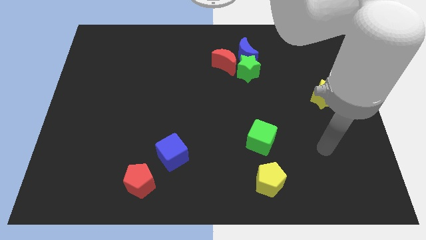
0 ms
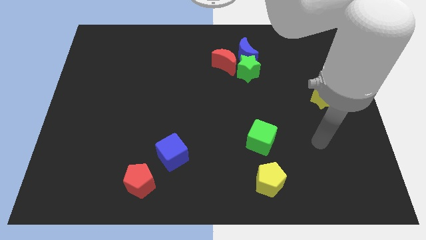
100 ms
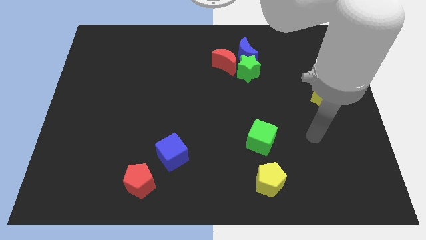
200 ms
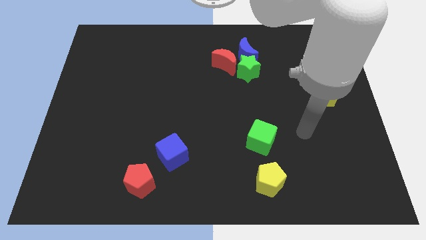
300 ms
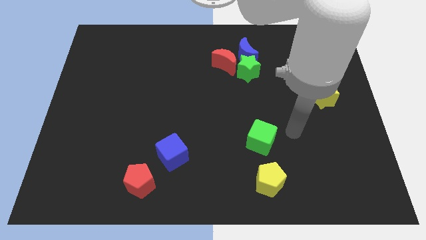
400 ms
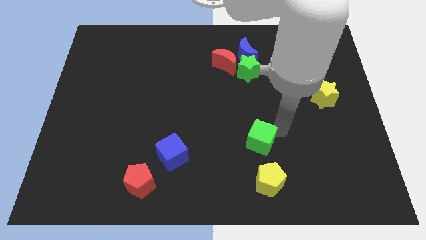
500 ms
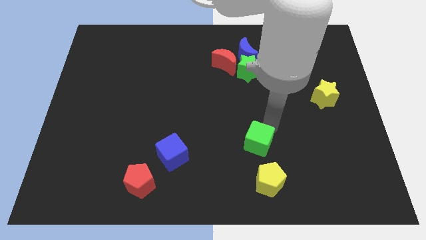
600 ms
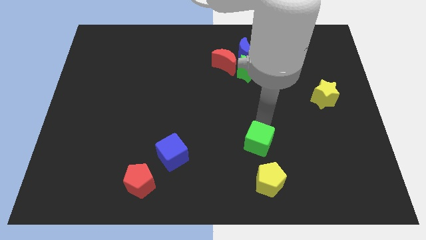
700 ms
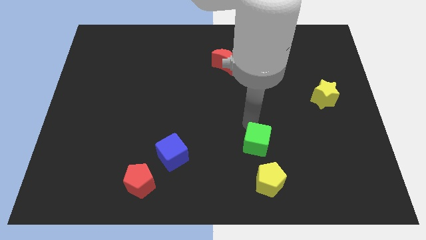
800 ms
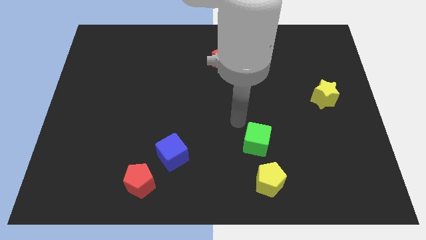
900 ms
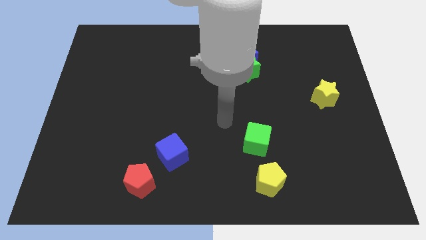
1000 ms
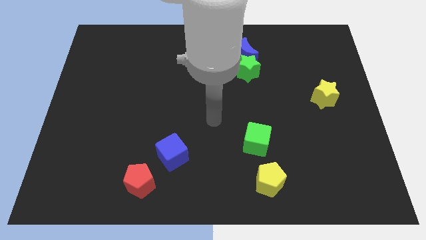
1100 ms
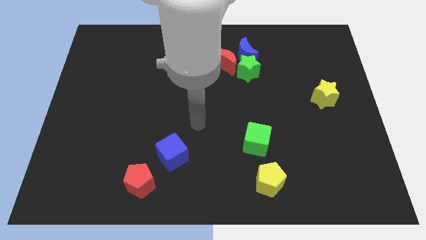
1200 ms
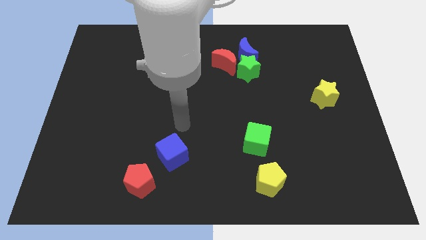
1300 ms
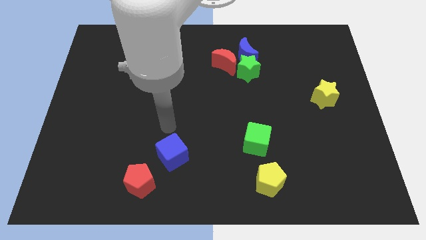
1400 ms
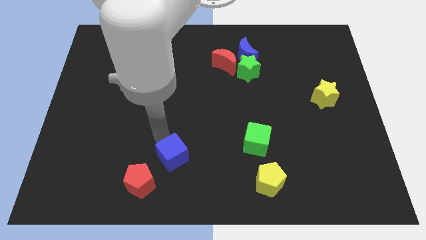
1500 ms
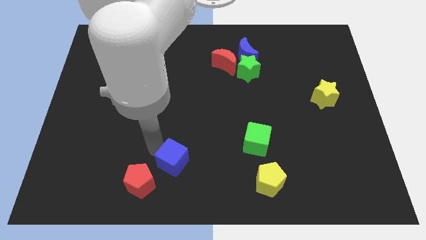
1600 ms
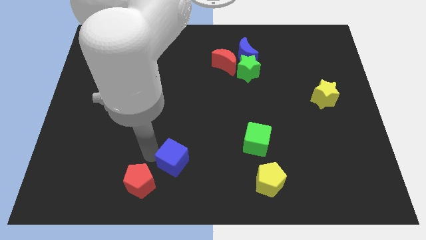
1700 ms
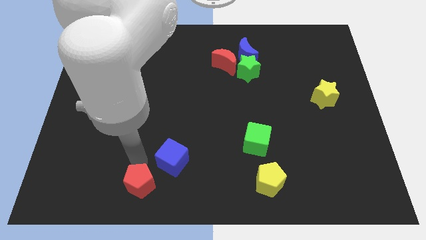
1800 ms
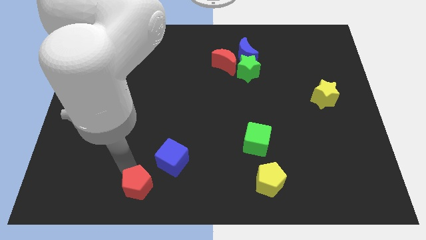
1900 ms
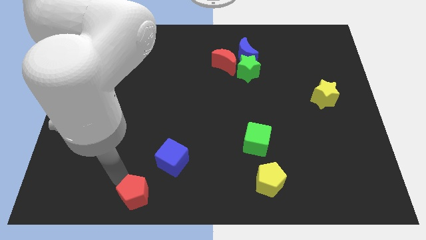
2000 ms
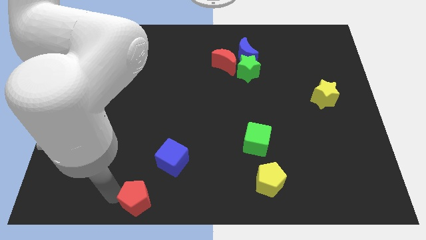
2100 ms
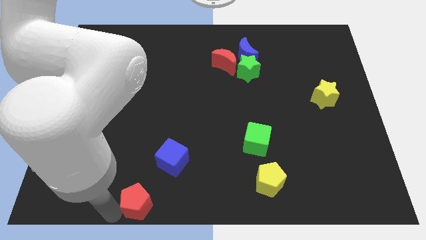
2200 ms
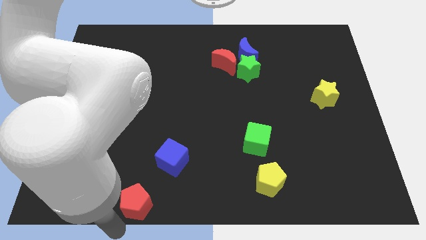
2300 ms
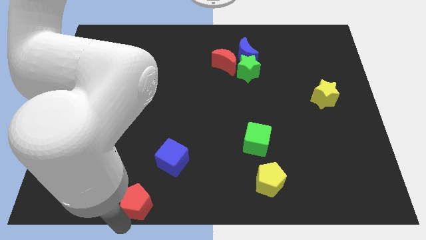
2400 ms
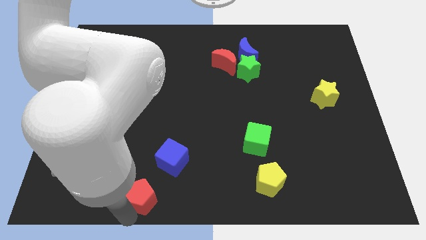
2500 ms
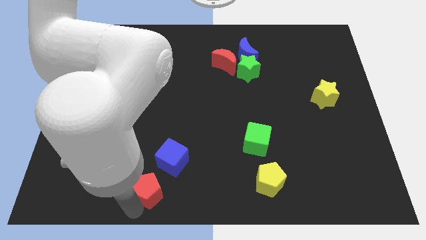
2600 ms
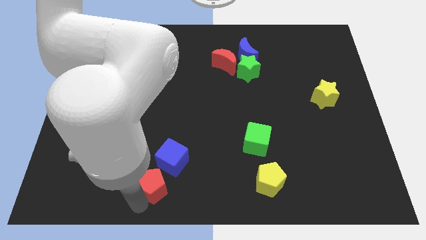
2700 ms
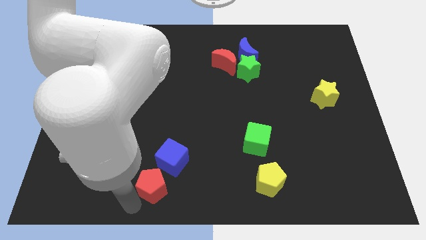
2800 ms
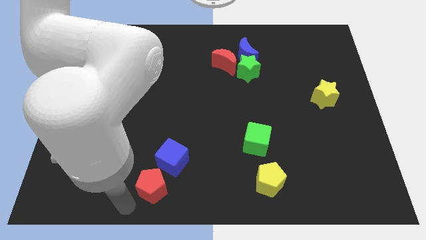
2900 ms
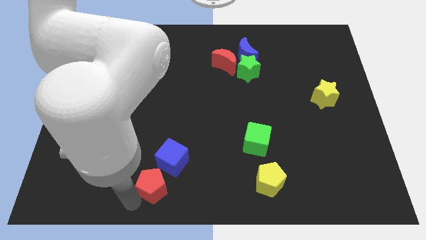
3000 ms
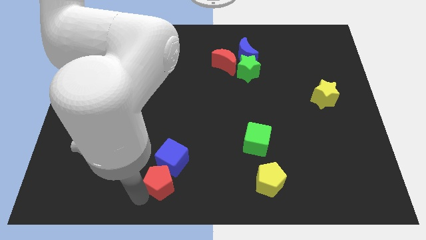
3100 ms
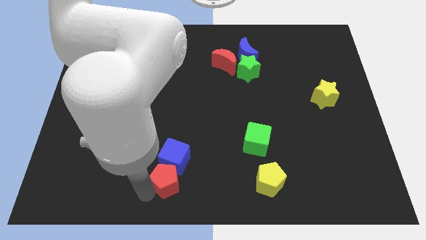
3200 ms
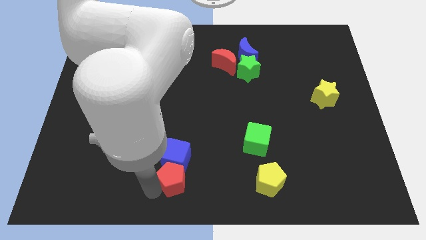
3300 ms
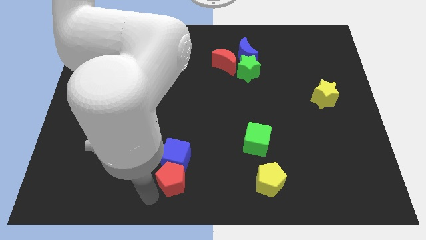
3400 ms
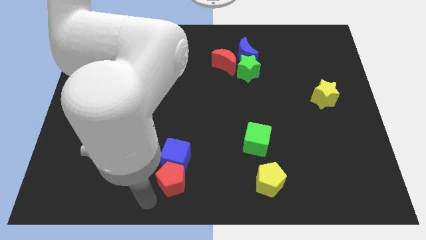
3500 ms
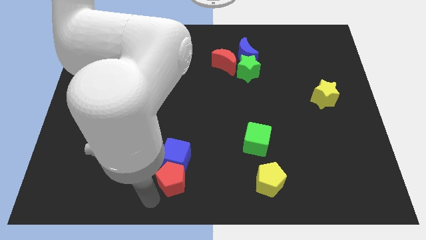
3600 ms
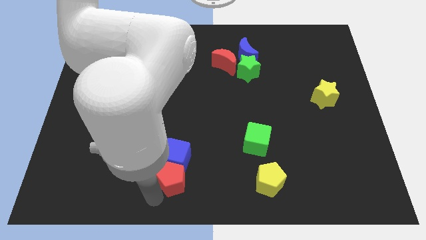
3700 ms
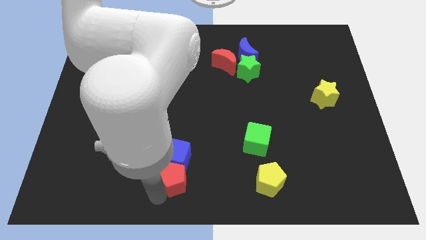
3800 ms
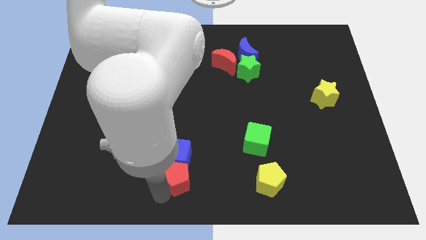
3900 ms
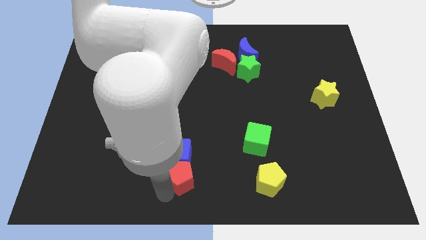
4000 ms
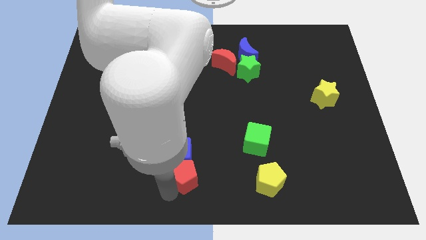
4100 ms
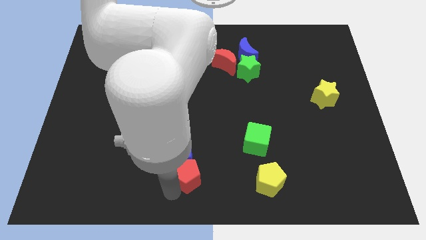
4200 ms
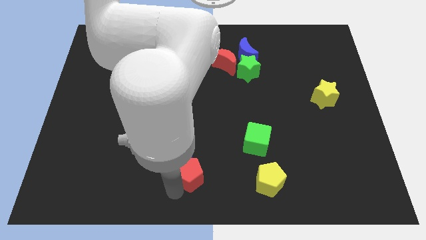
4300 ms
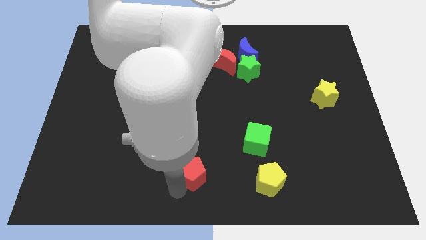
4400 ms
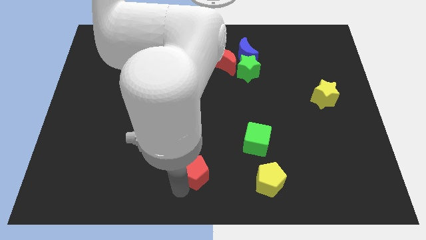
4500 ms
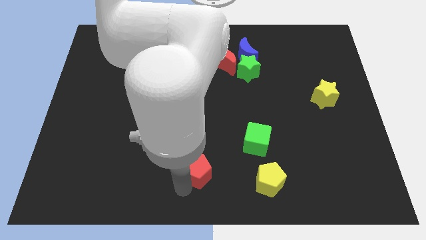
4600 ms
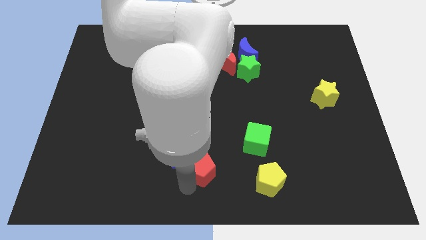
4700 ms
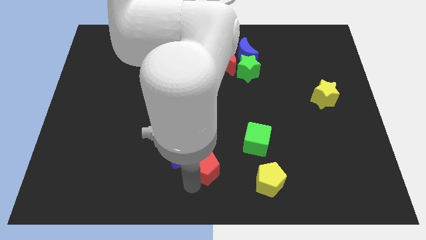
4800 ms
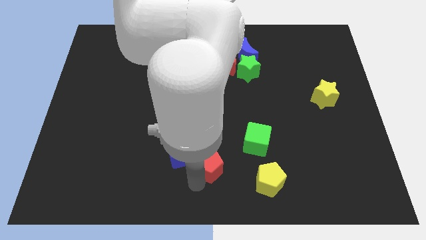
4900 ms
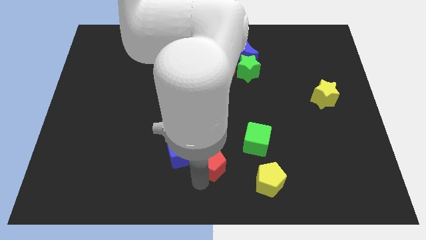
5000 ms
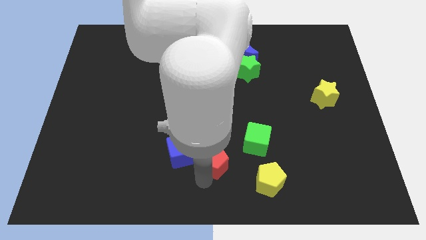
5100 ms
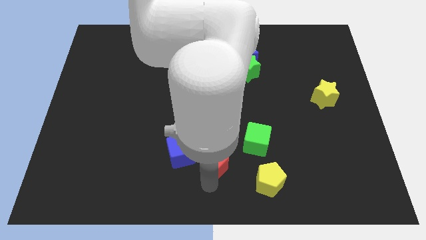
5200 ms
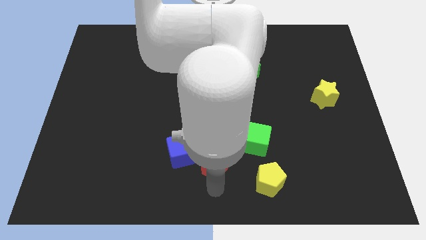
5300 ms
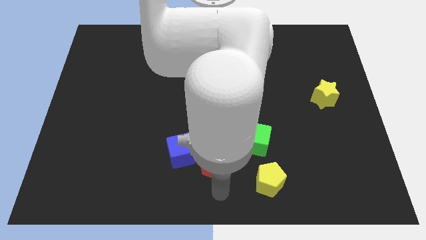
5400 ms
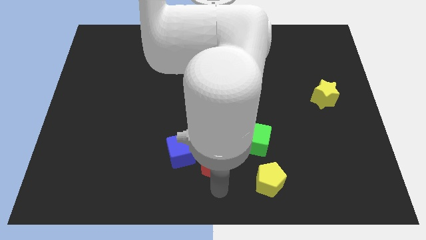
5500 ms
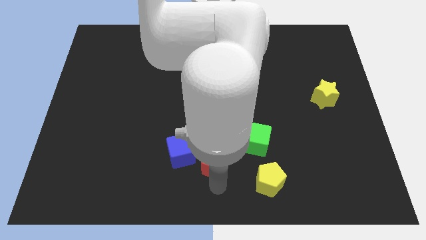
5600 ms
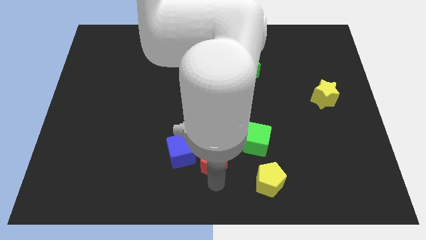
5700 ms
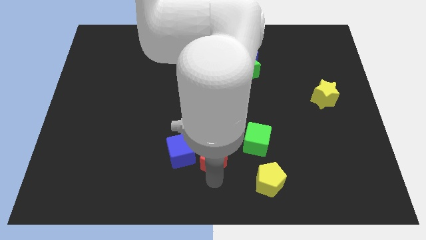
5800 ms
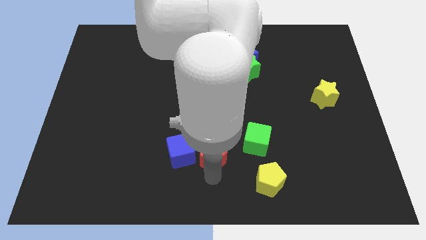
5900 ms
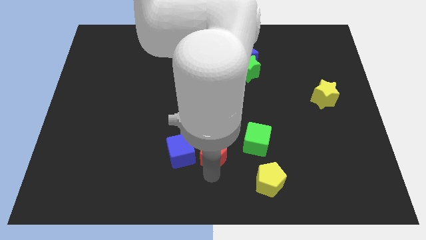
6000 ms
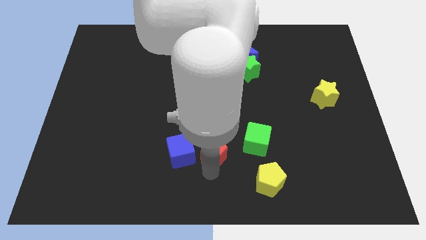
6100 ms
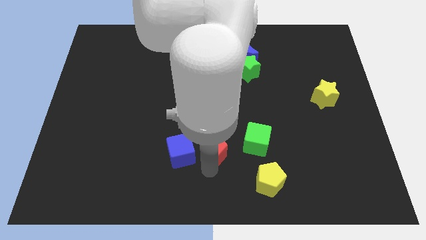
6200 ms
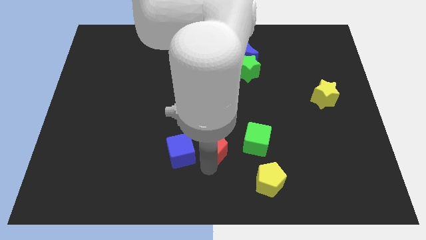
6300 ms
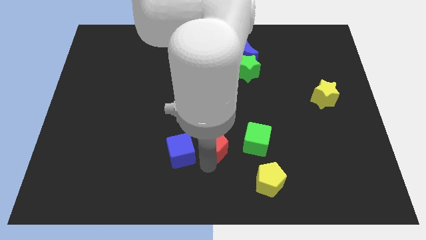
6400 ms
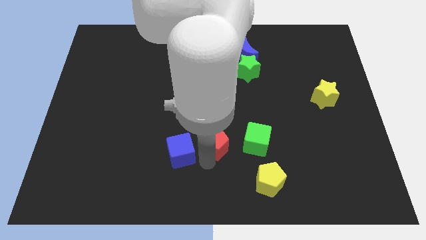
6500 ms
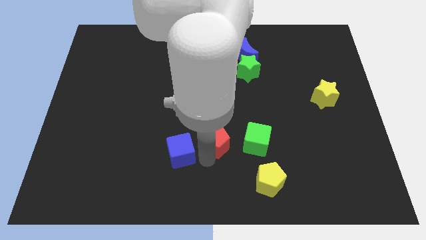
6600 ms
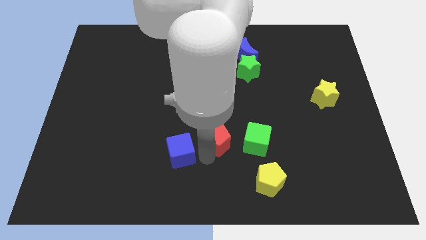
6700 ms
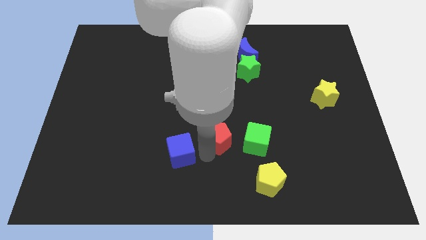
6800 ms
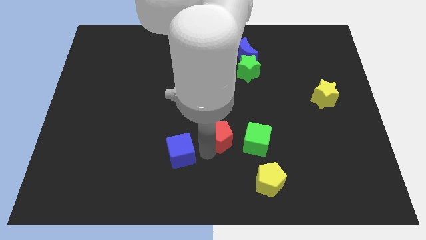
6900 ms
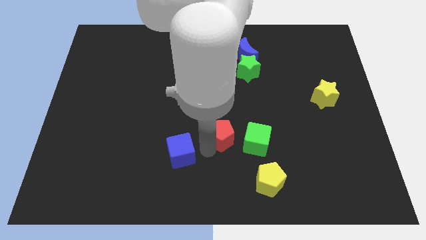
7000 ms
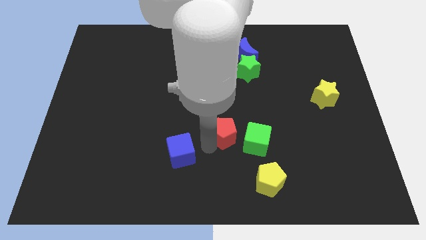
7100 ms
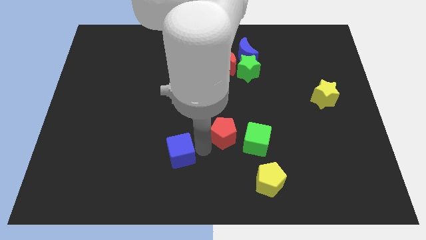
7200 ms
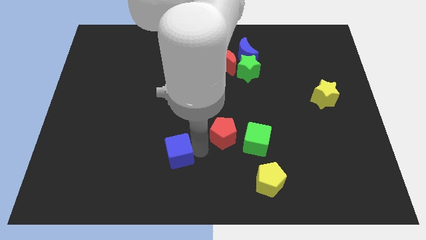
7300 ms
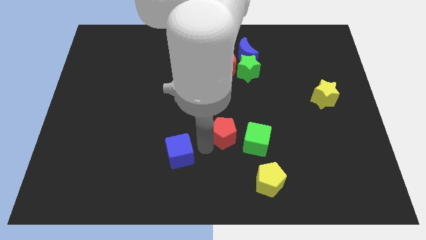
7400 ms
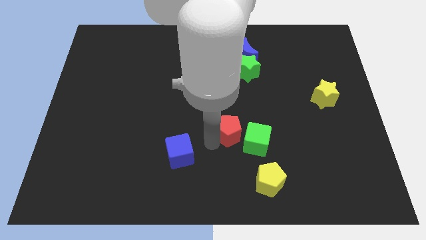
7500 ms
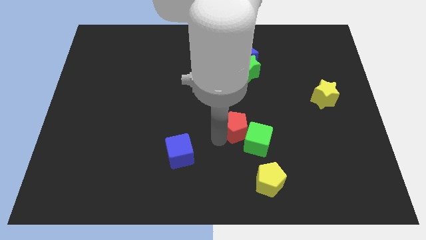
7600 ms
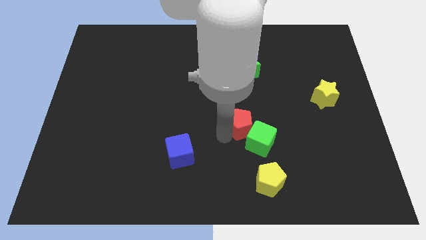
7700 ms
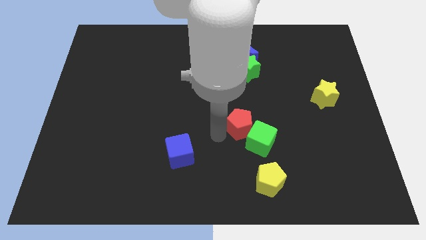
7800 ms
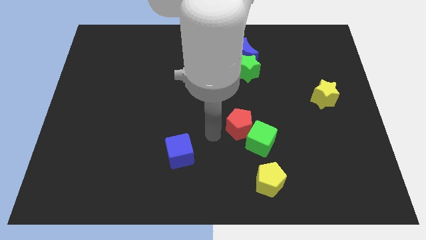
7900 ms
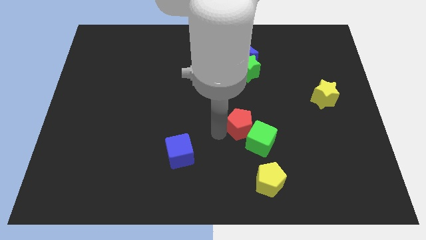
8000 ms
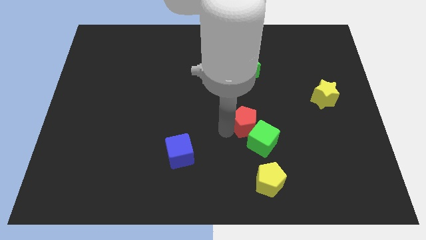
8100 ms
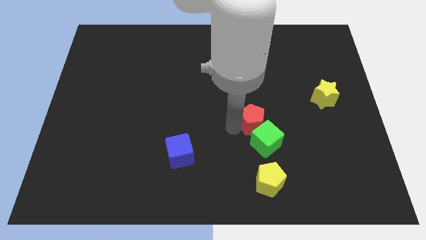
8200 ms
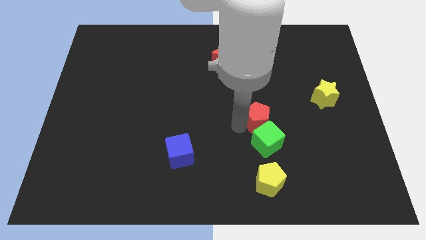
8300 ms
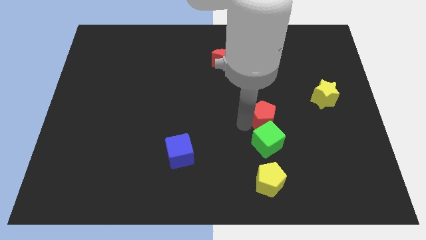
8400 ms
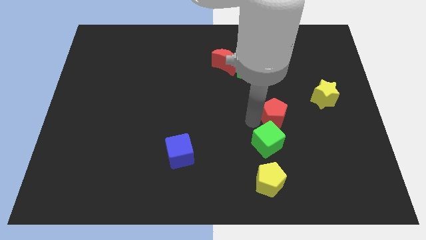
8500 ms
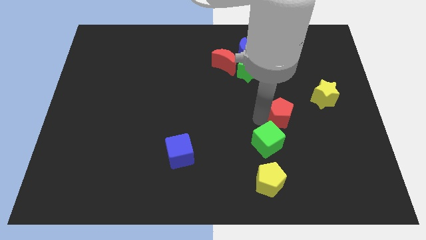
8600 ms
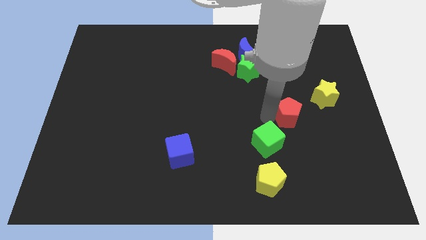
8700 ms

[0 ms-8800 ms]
slide the red pentagon diagonally down and to the left of the yellow star
